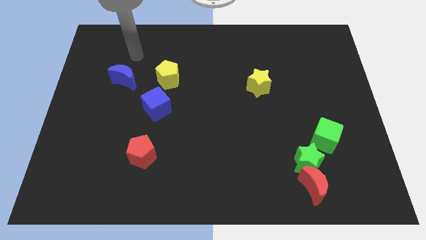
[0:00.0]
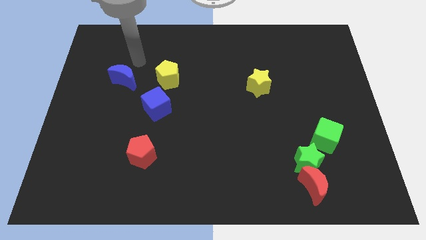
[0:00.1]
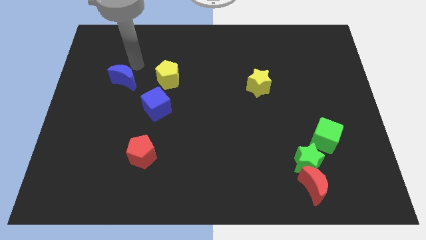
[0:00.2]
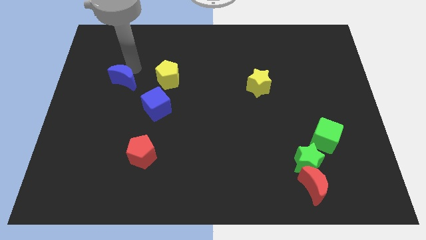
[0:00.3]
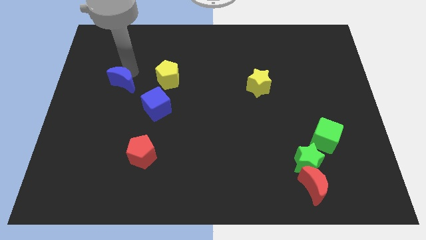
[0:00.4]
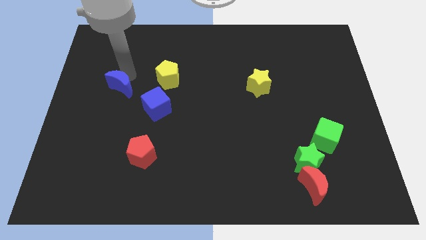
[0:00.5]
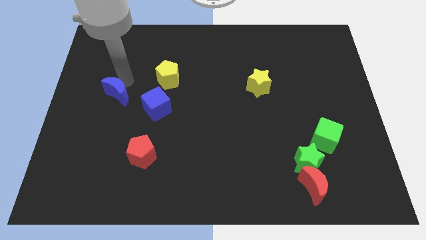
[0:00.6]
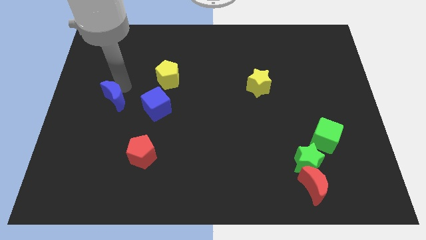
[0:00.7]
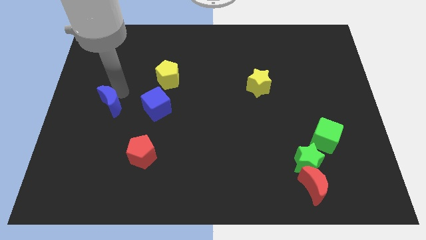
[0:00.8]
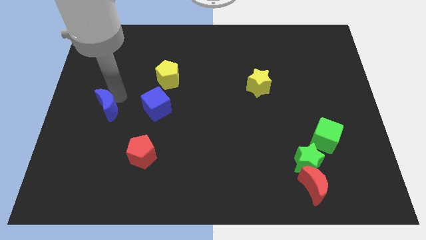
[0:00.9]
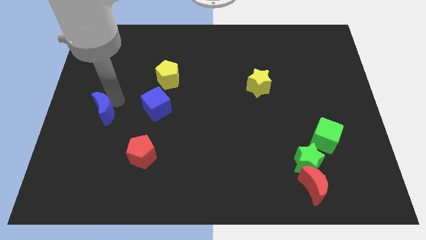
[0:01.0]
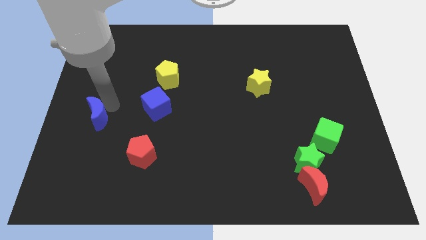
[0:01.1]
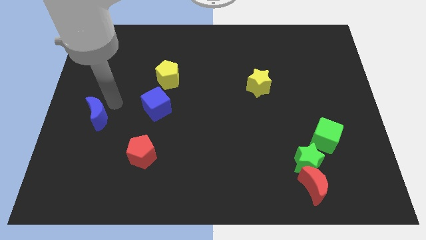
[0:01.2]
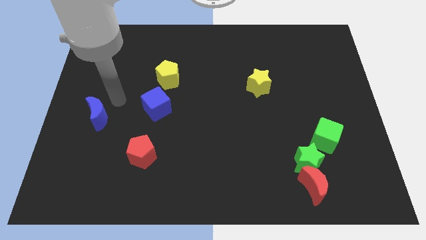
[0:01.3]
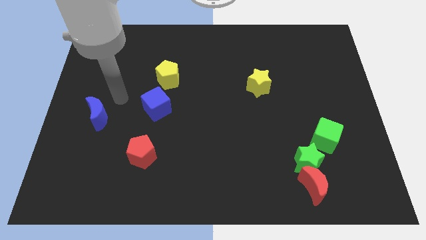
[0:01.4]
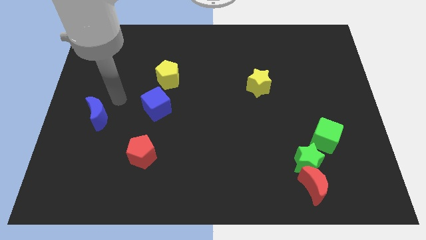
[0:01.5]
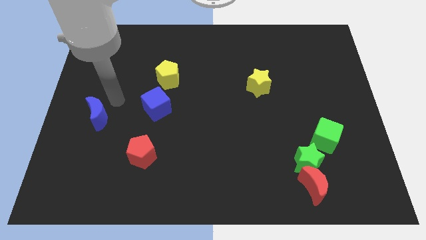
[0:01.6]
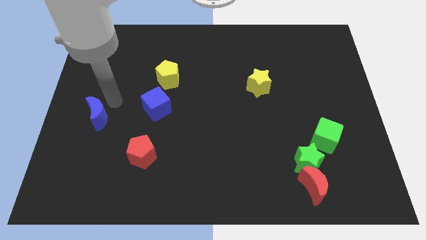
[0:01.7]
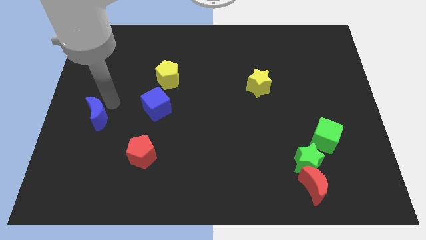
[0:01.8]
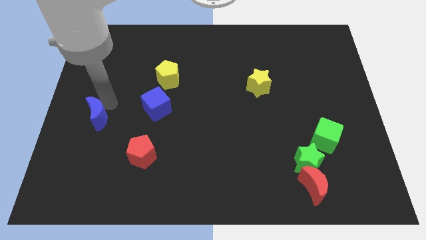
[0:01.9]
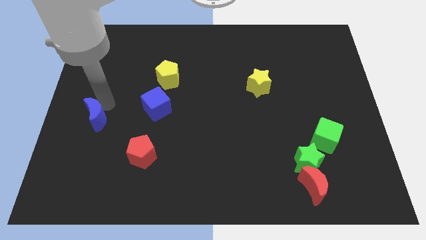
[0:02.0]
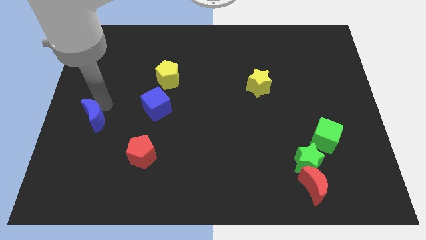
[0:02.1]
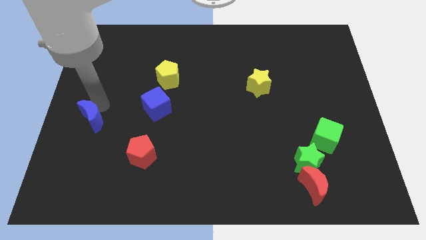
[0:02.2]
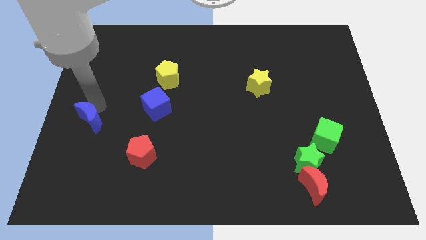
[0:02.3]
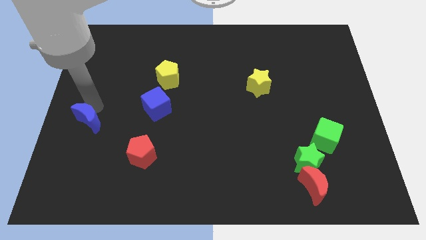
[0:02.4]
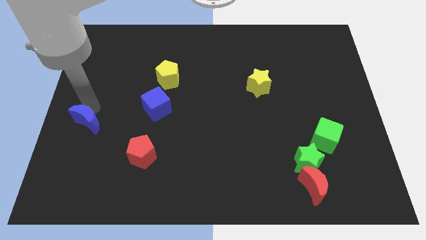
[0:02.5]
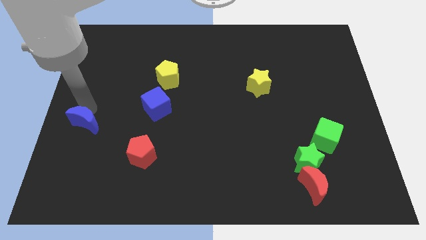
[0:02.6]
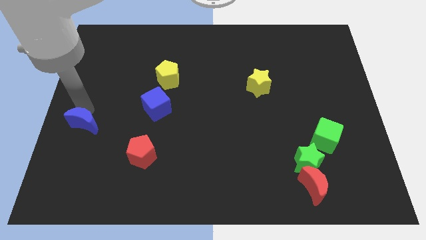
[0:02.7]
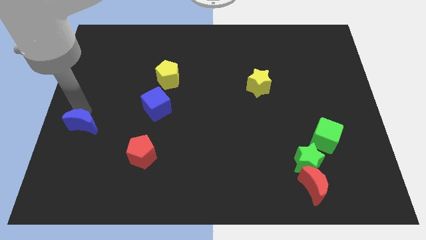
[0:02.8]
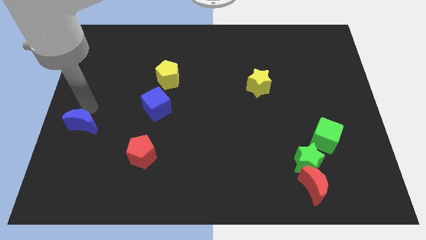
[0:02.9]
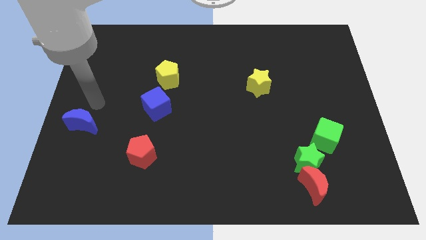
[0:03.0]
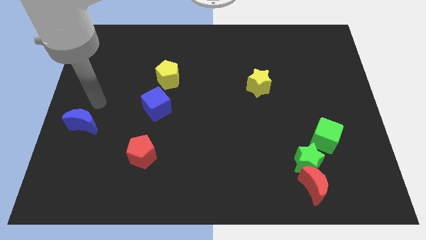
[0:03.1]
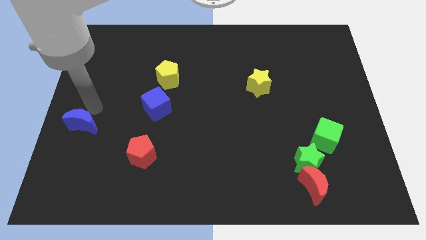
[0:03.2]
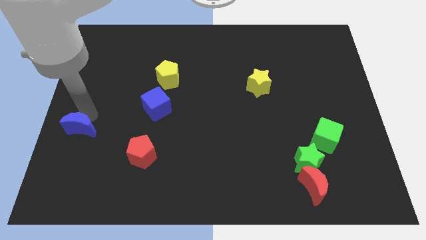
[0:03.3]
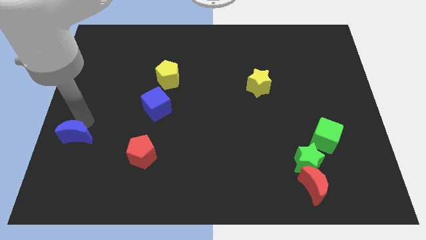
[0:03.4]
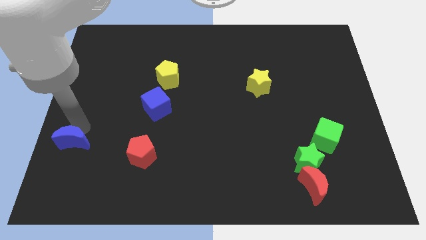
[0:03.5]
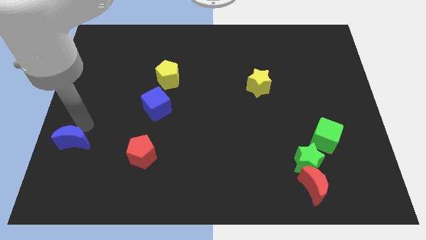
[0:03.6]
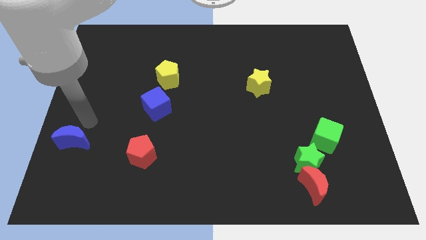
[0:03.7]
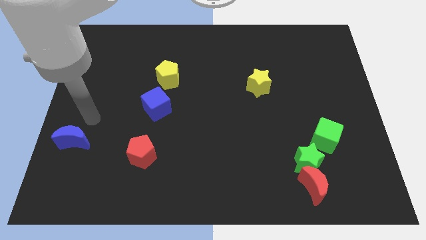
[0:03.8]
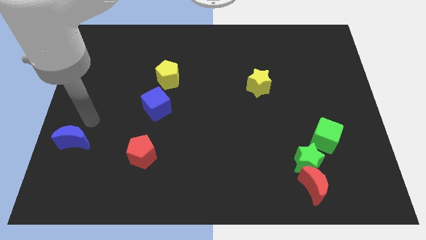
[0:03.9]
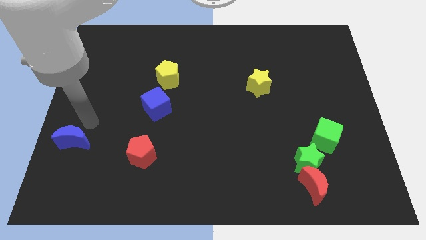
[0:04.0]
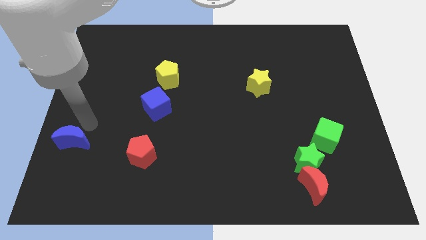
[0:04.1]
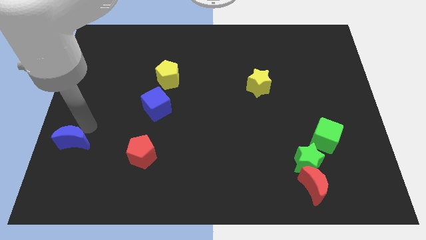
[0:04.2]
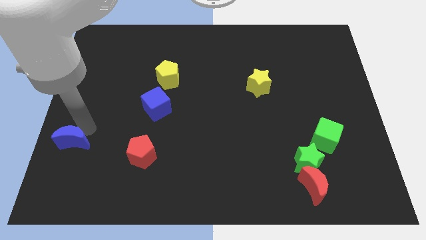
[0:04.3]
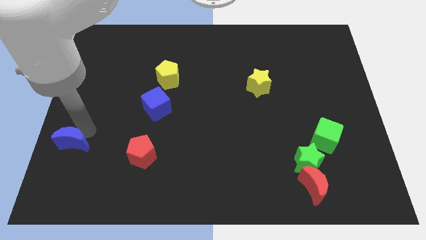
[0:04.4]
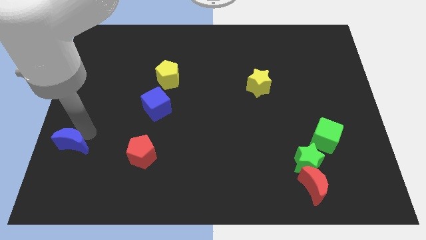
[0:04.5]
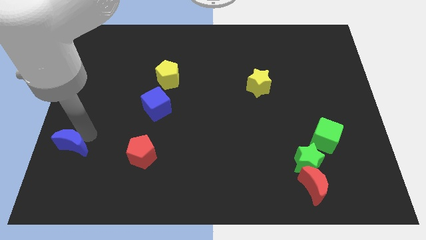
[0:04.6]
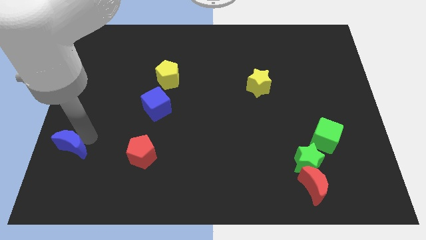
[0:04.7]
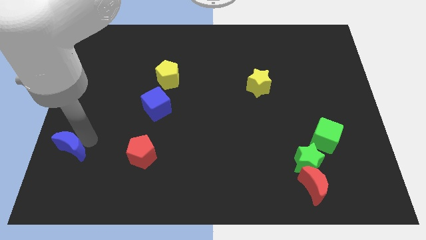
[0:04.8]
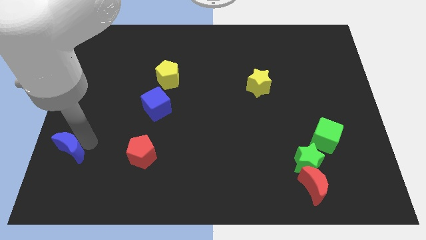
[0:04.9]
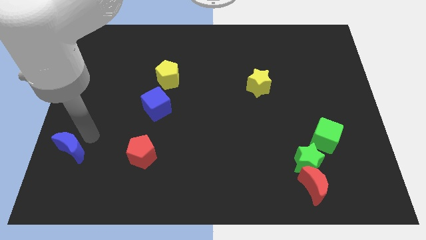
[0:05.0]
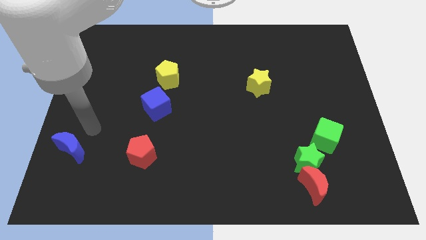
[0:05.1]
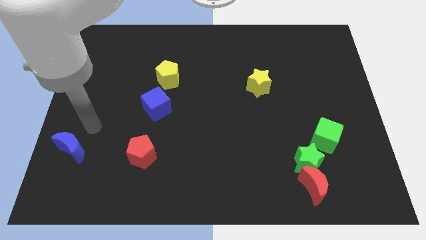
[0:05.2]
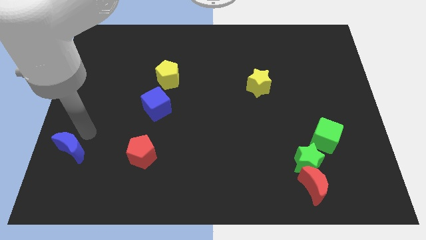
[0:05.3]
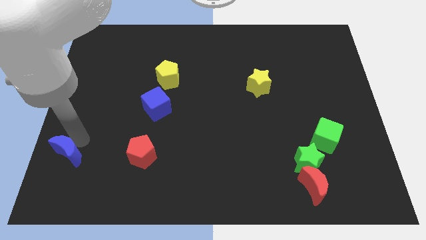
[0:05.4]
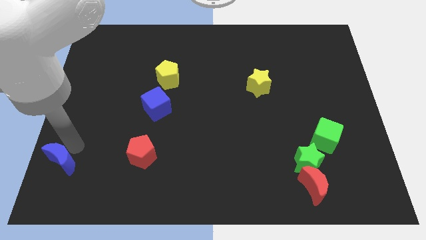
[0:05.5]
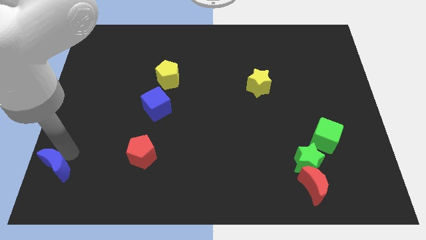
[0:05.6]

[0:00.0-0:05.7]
slide the blue moon to the lower left corner

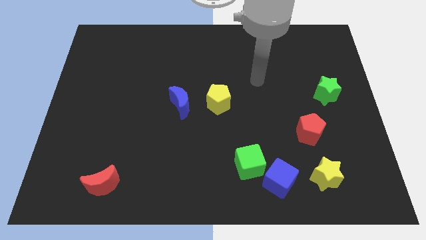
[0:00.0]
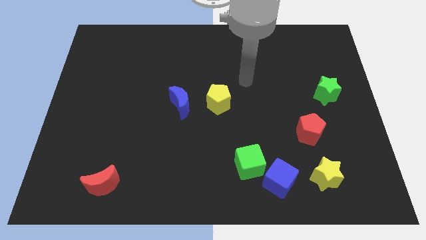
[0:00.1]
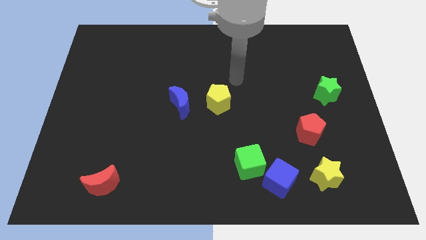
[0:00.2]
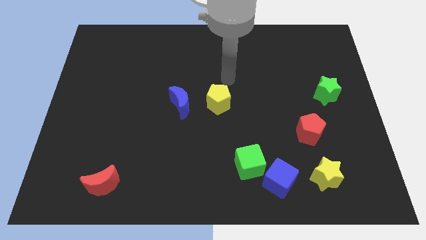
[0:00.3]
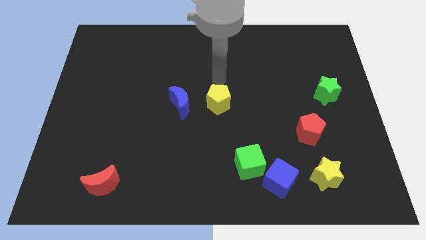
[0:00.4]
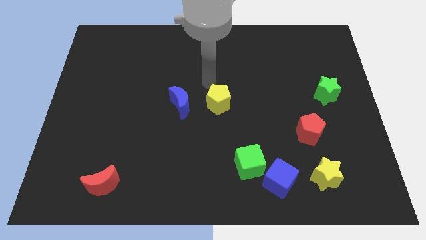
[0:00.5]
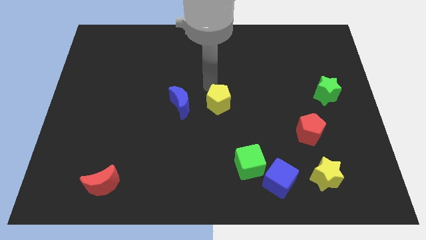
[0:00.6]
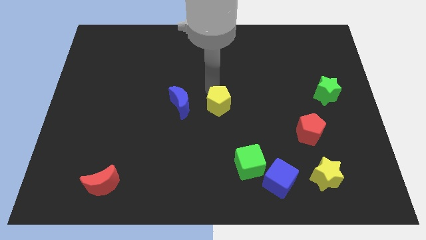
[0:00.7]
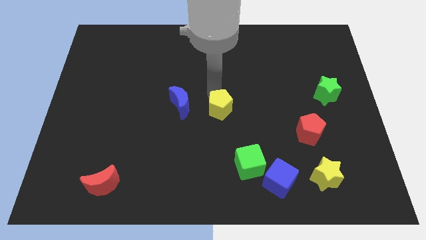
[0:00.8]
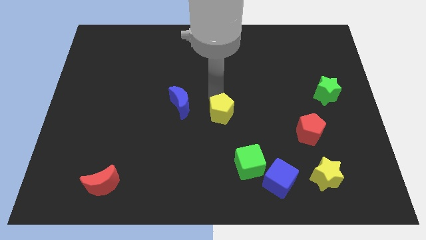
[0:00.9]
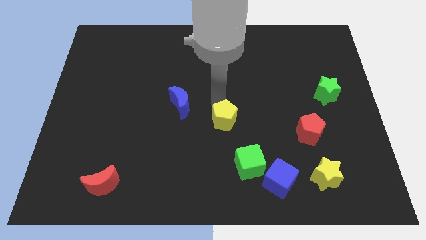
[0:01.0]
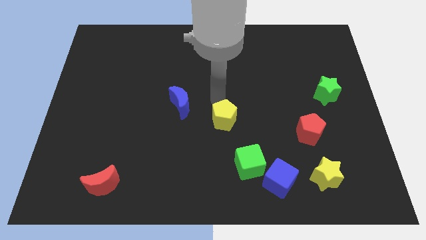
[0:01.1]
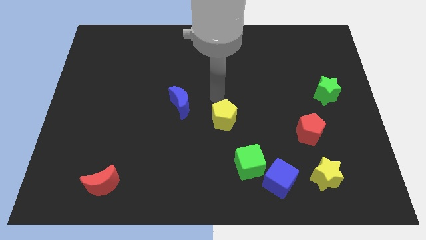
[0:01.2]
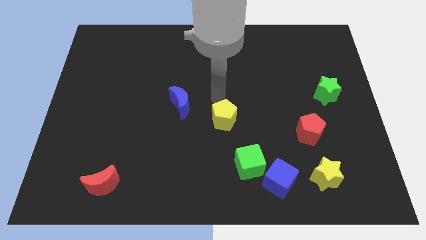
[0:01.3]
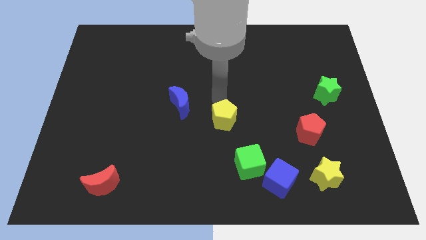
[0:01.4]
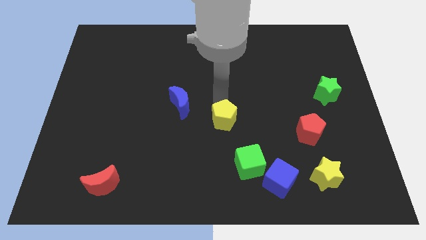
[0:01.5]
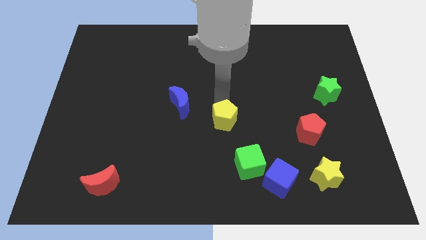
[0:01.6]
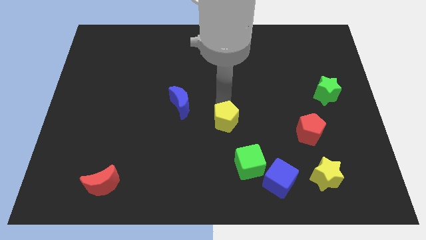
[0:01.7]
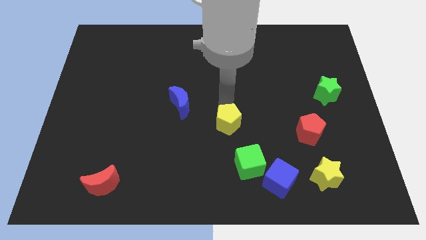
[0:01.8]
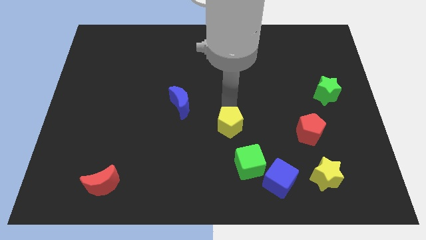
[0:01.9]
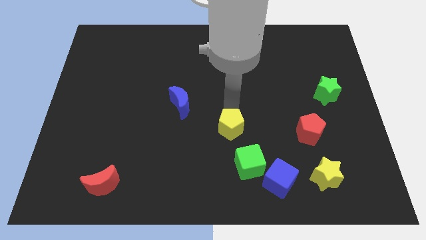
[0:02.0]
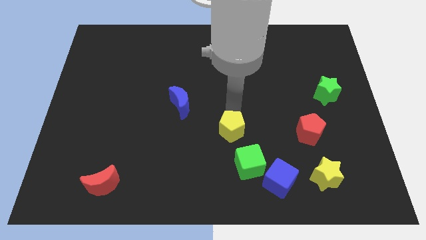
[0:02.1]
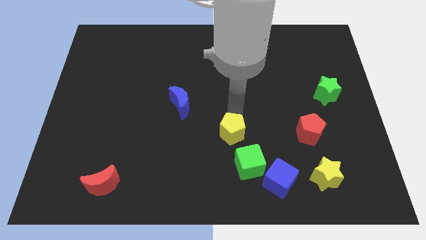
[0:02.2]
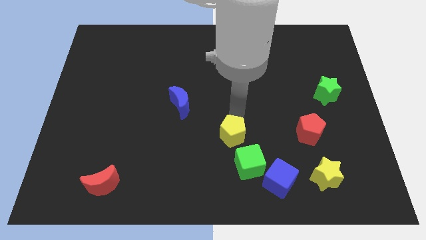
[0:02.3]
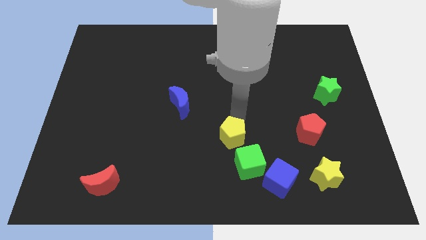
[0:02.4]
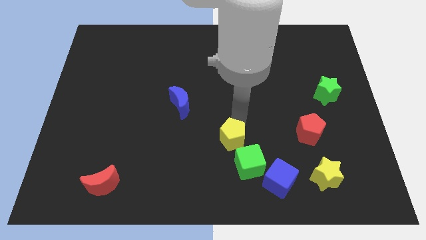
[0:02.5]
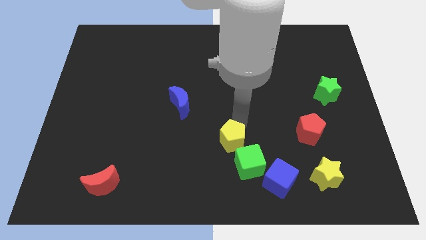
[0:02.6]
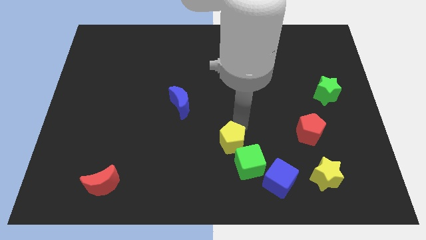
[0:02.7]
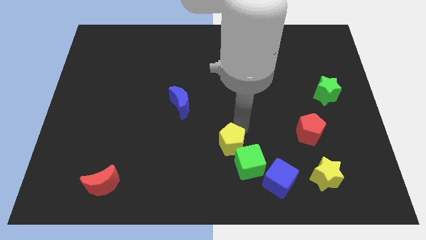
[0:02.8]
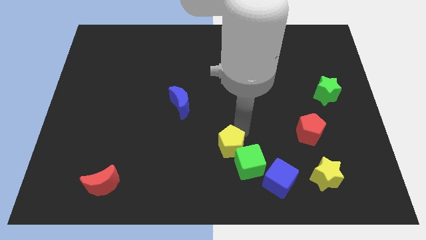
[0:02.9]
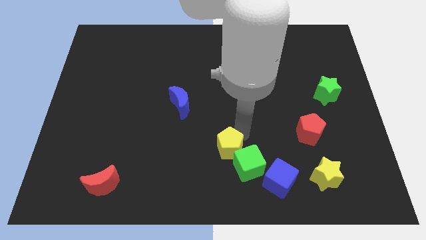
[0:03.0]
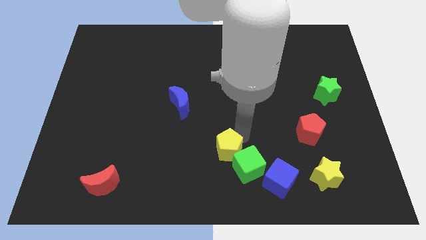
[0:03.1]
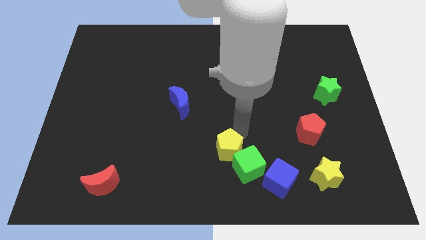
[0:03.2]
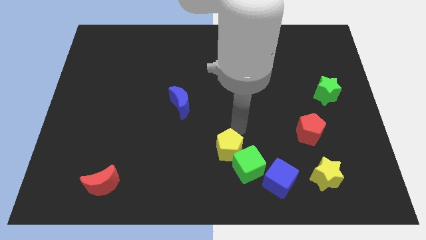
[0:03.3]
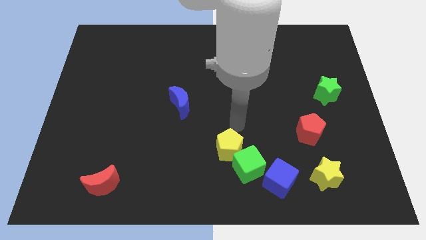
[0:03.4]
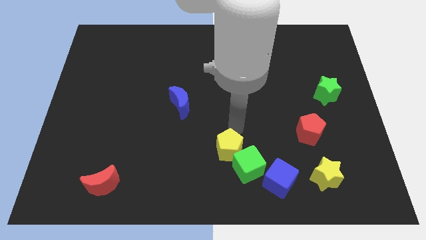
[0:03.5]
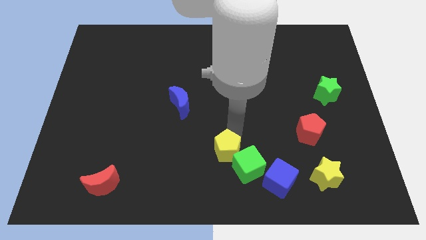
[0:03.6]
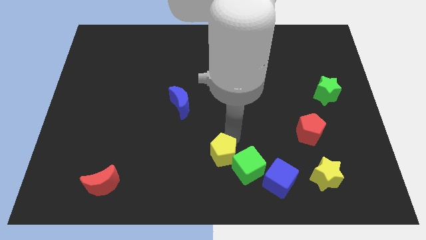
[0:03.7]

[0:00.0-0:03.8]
slide the yellow pentagon to the bottom side
